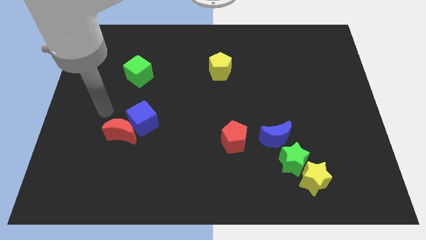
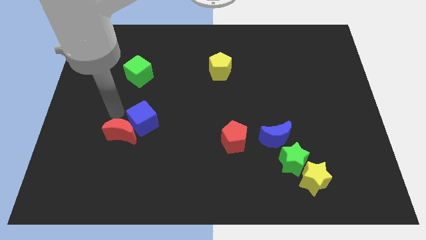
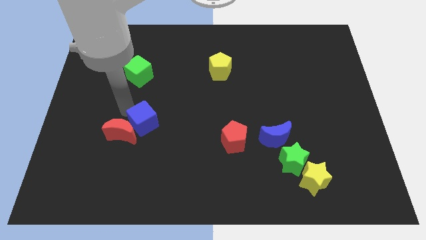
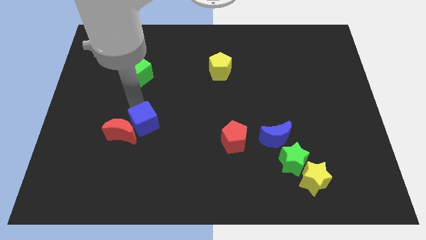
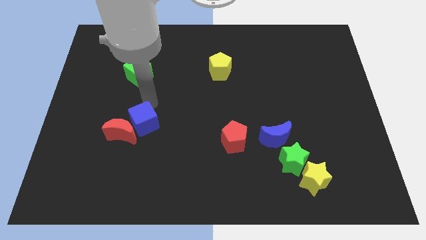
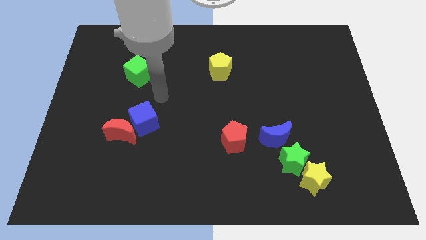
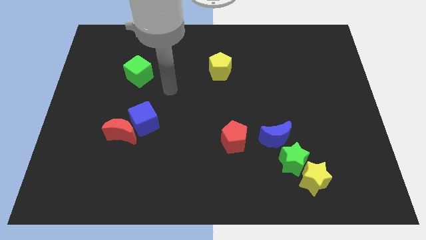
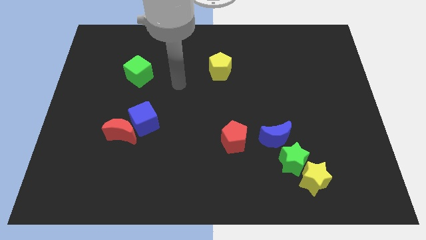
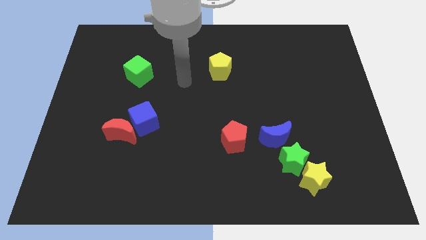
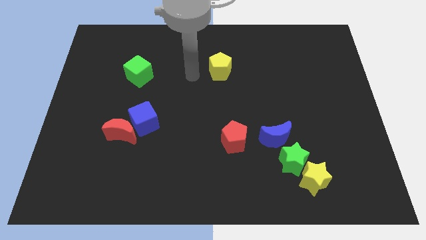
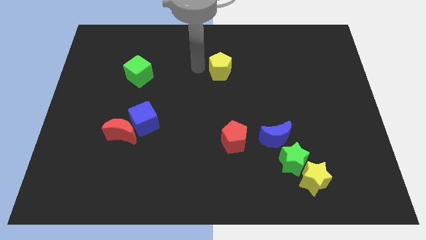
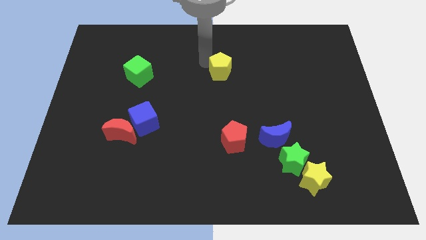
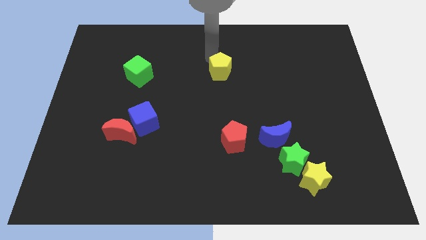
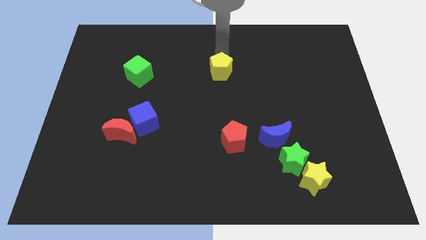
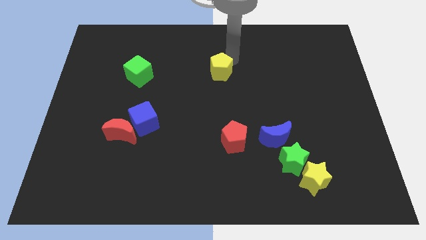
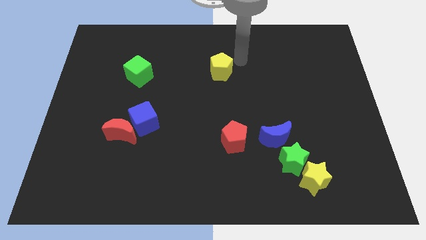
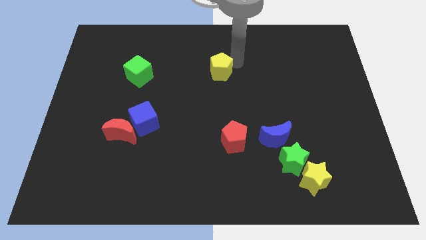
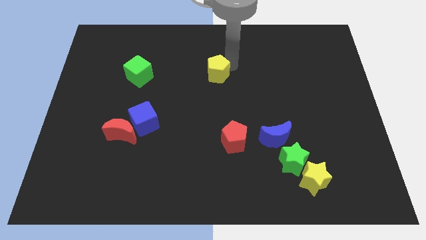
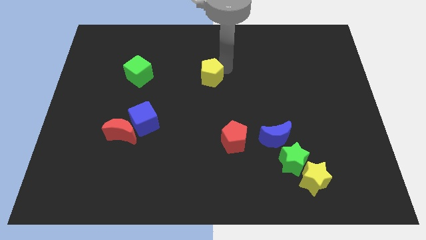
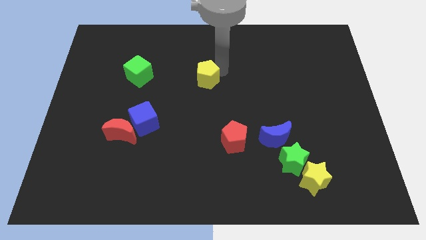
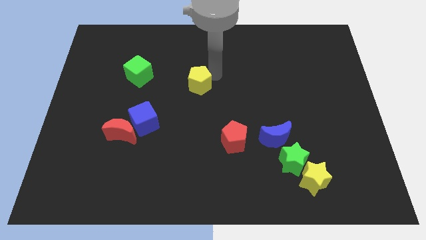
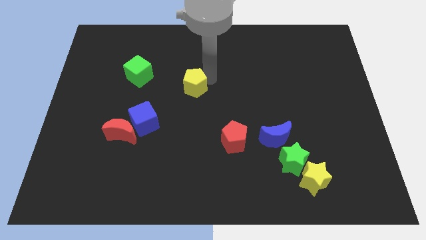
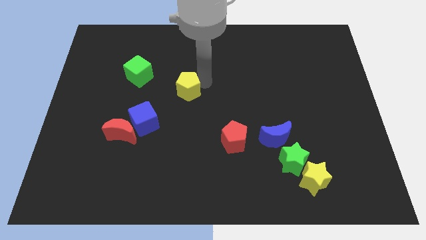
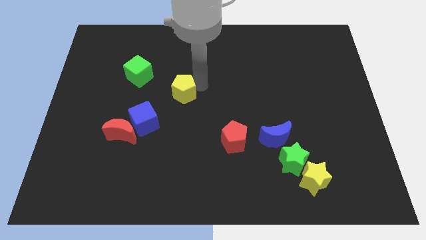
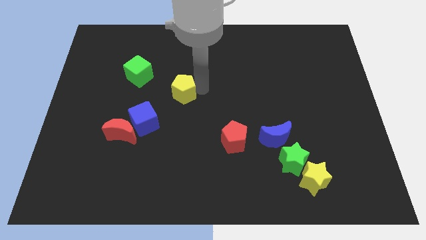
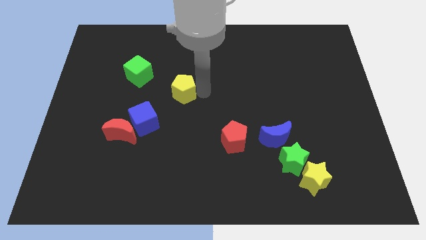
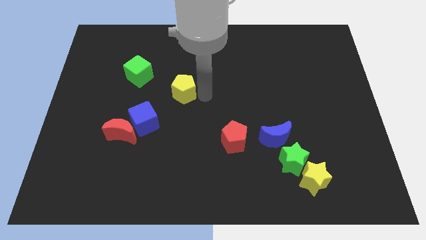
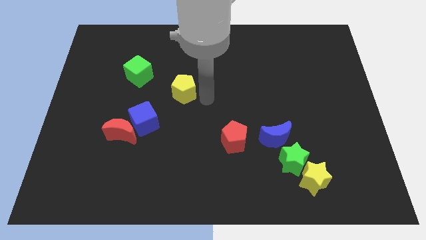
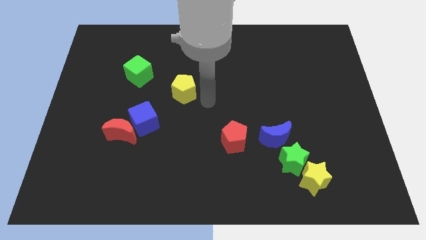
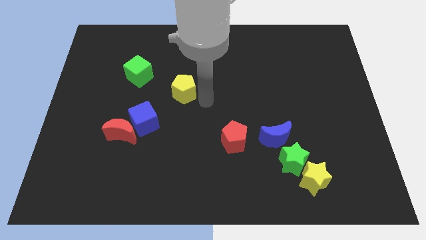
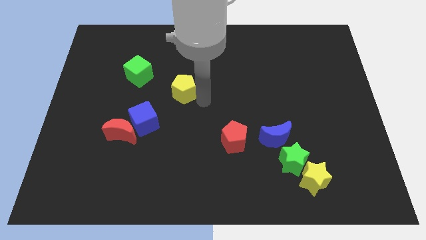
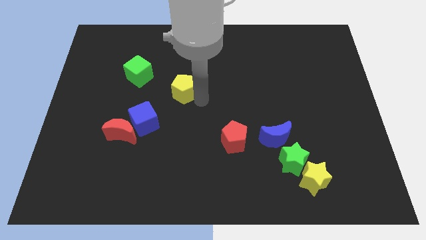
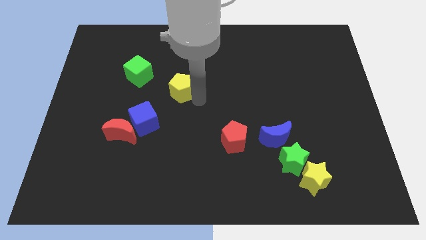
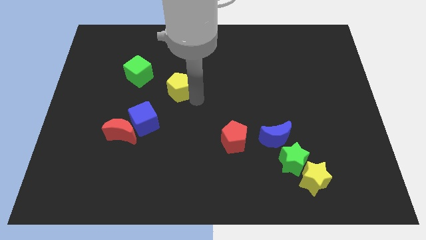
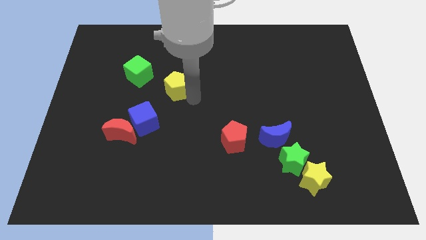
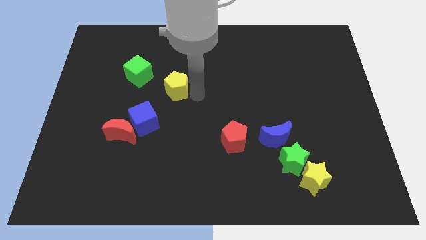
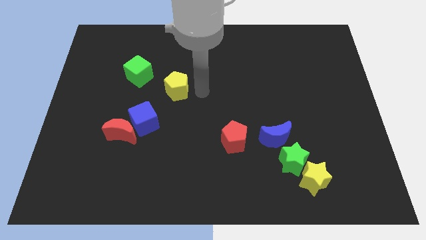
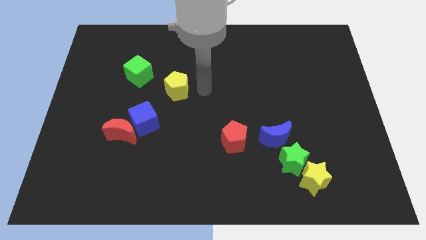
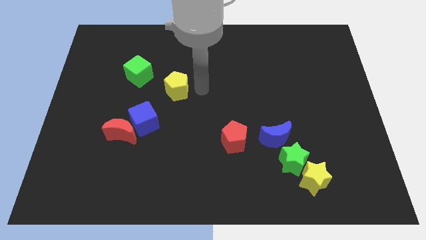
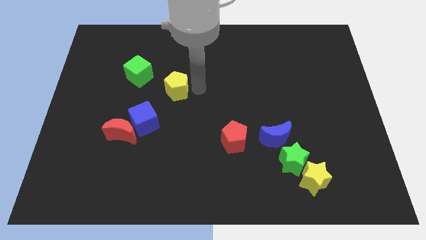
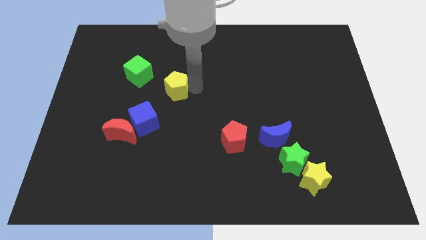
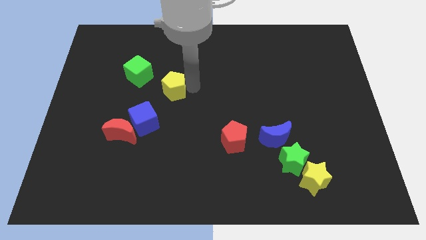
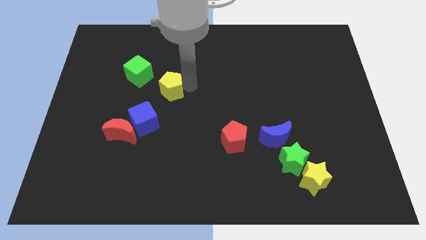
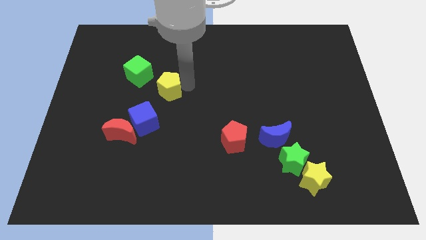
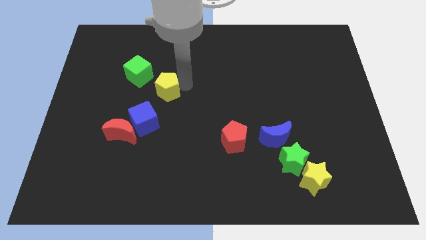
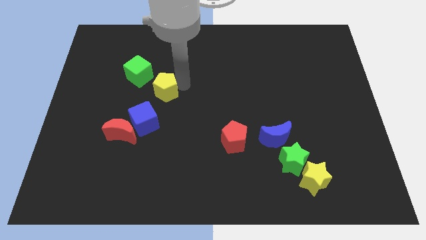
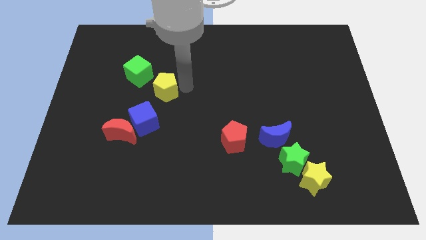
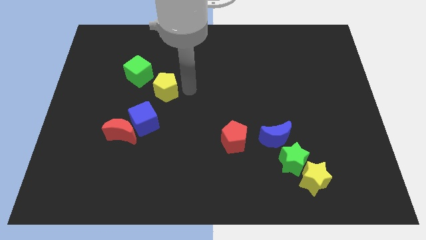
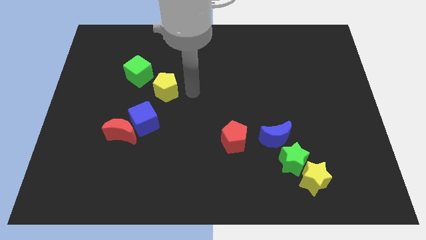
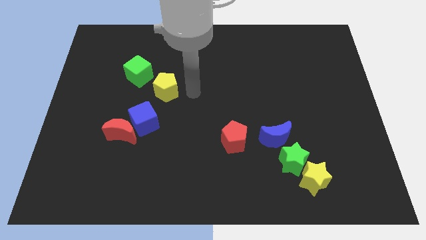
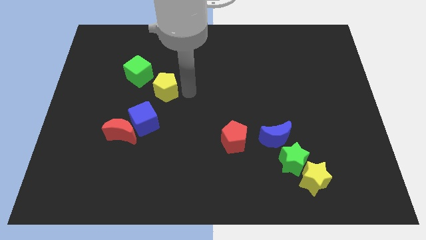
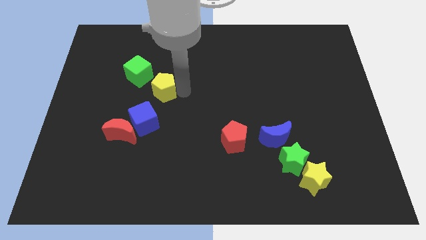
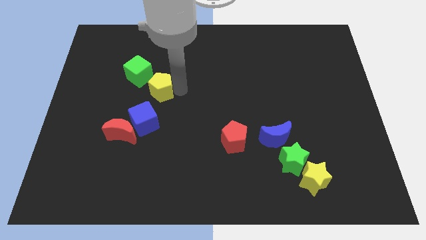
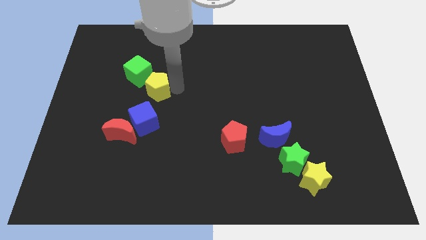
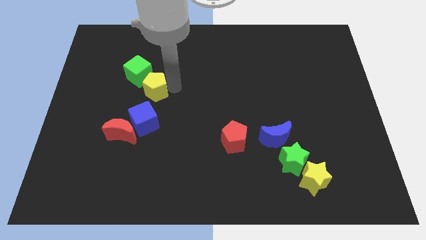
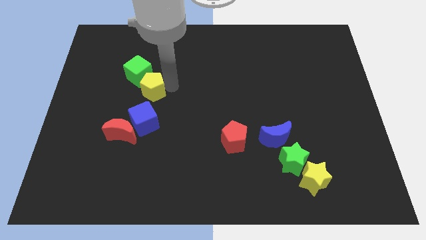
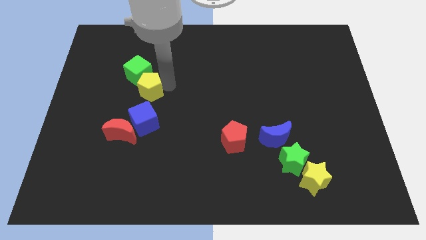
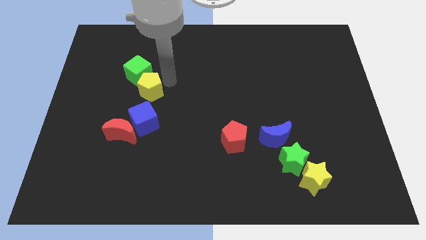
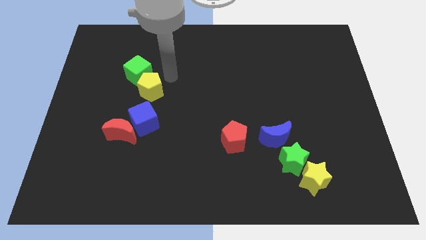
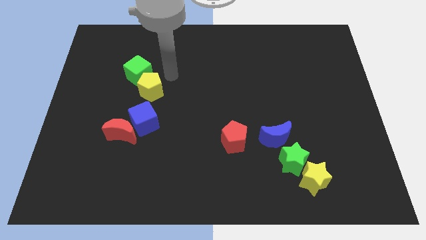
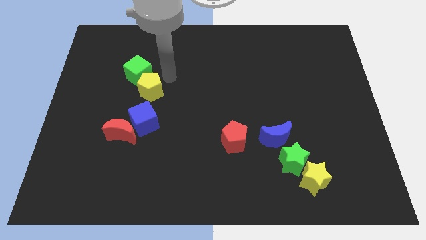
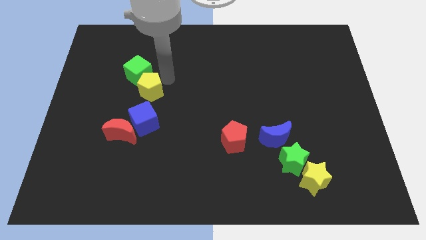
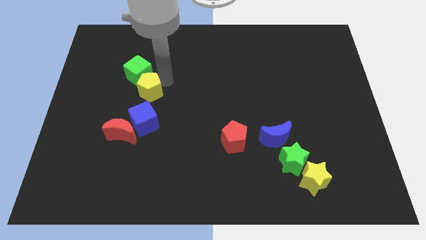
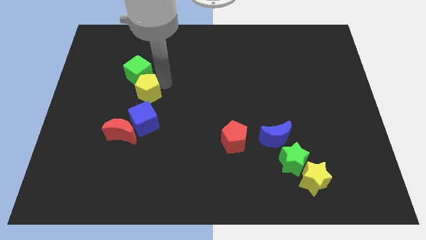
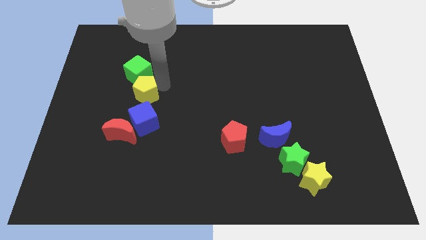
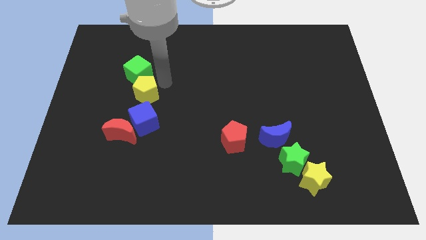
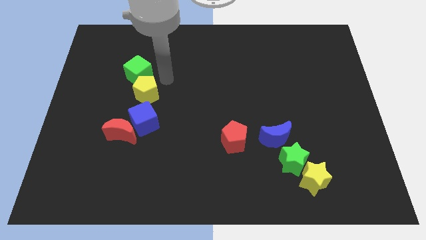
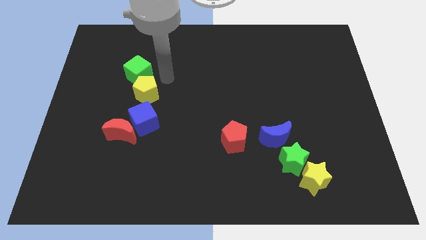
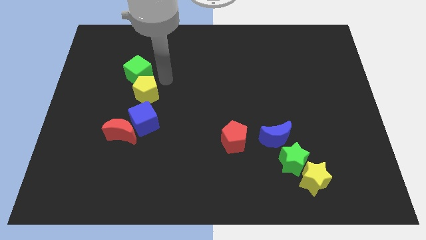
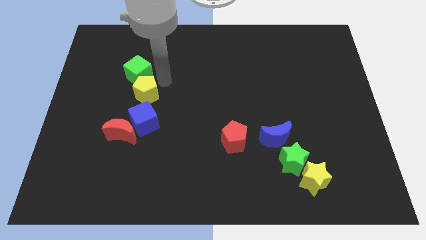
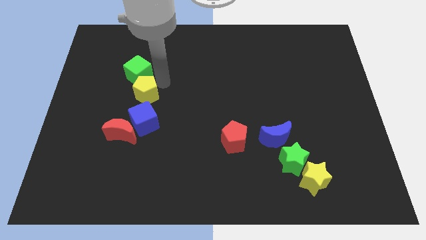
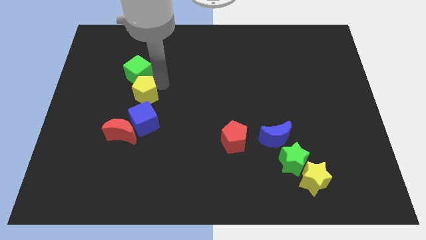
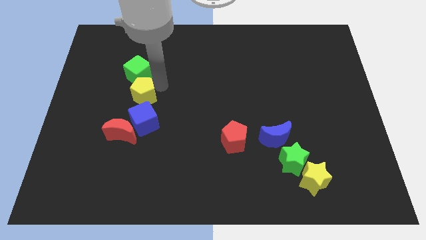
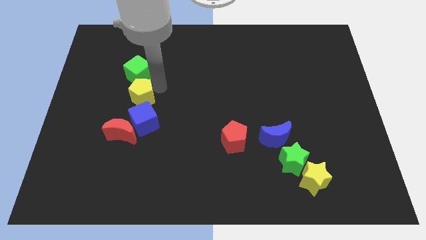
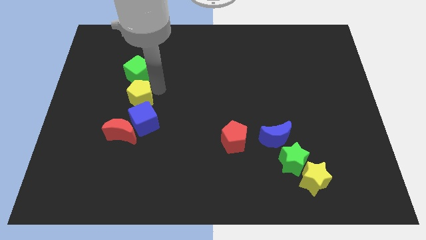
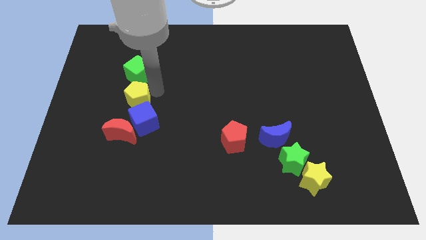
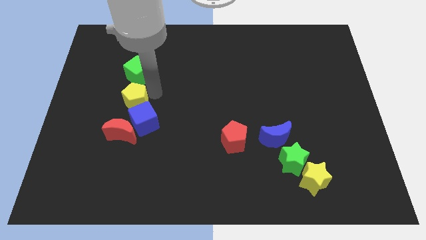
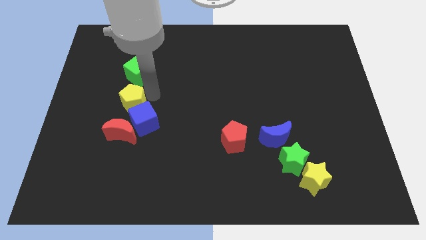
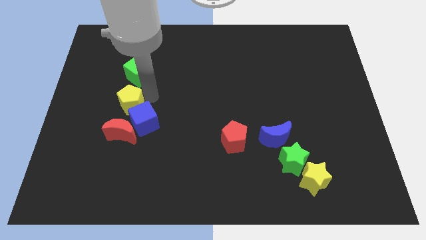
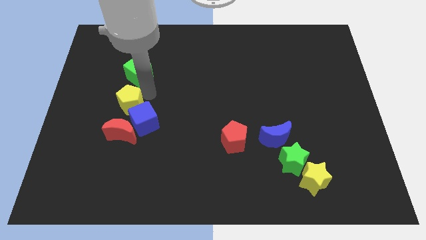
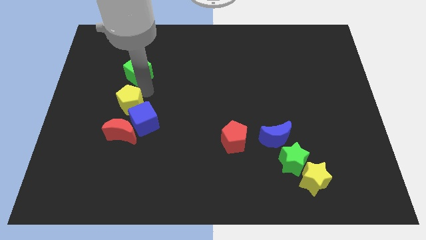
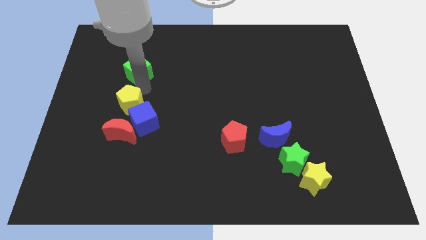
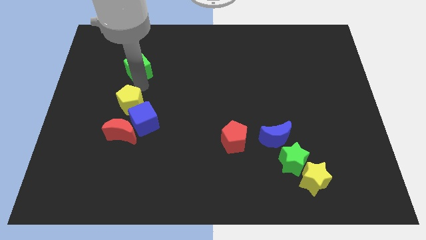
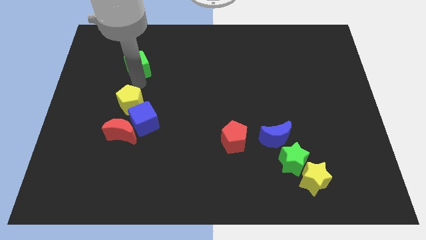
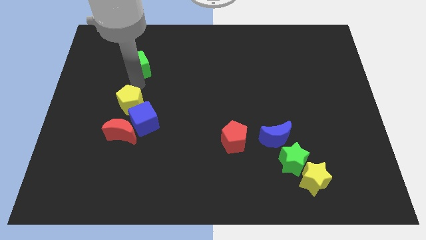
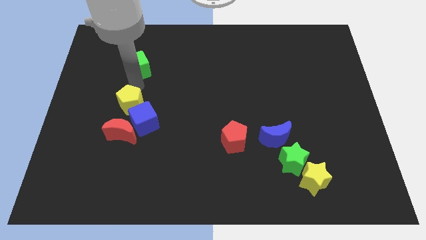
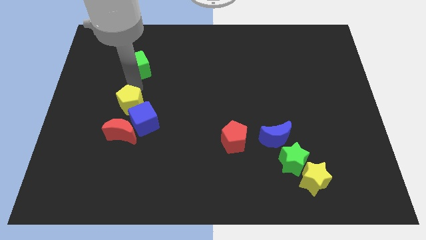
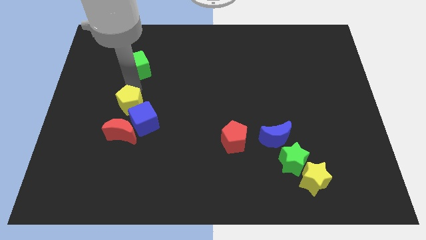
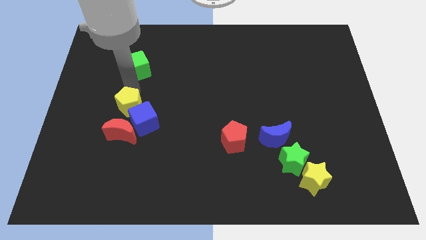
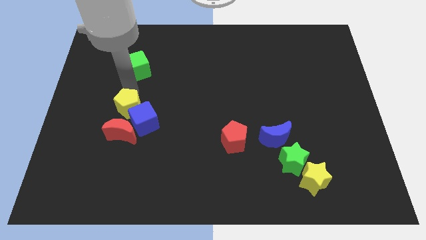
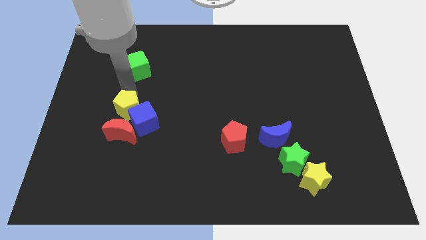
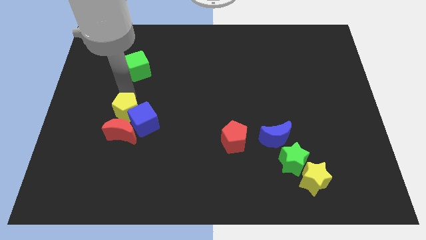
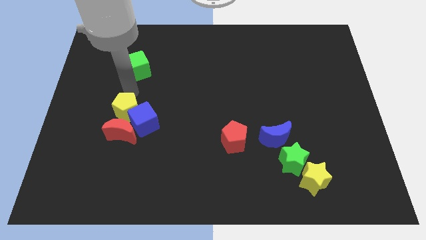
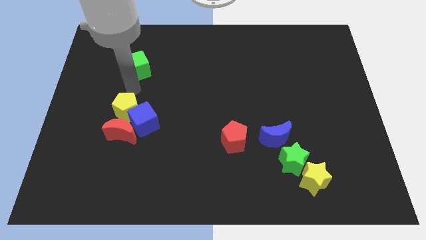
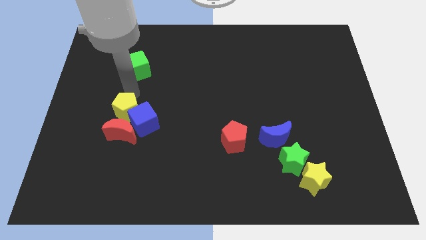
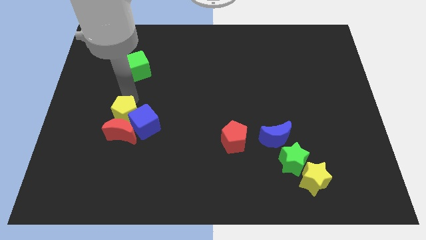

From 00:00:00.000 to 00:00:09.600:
put the yellow pentagon towards the red moon
